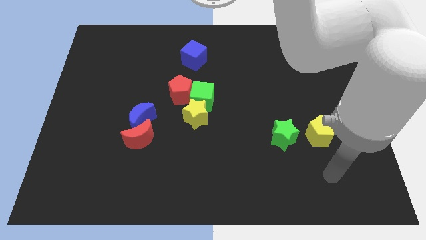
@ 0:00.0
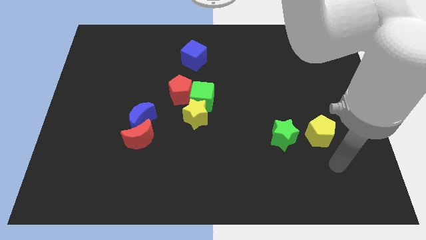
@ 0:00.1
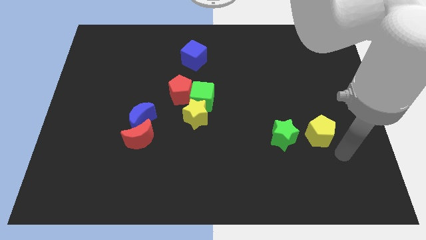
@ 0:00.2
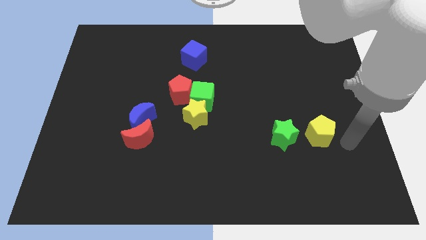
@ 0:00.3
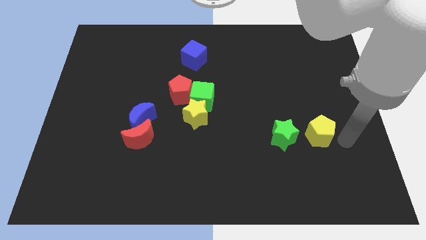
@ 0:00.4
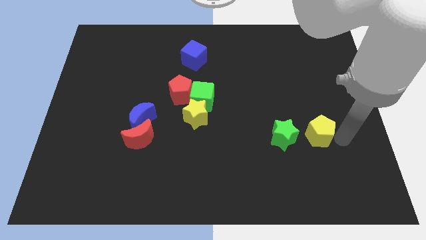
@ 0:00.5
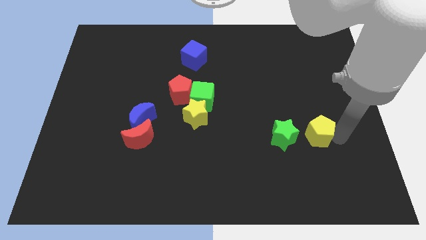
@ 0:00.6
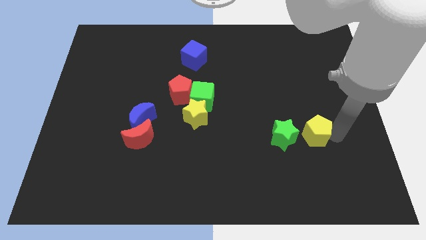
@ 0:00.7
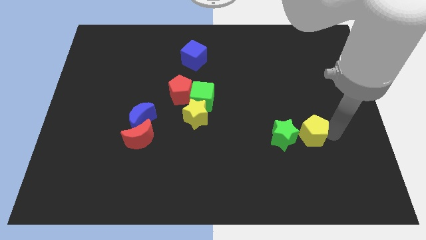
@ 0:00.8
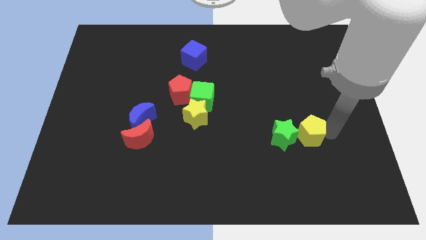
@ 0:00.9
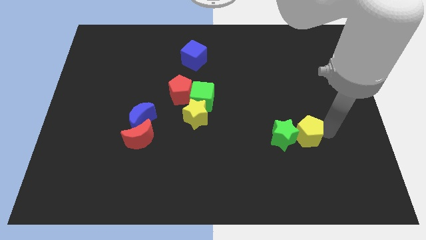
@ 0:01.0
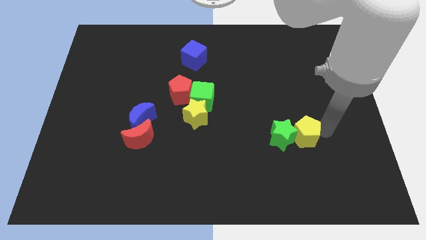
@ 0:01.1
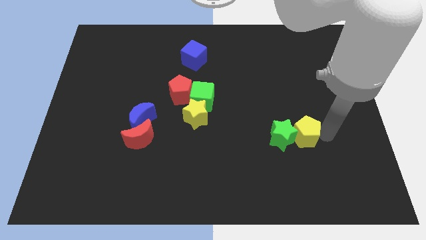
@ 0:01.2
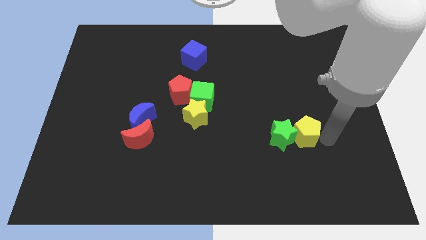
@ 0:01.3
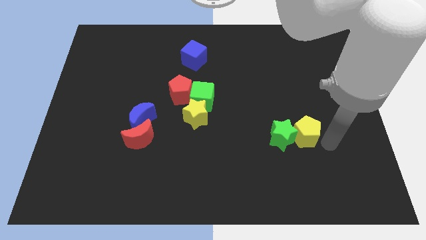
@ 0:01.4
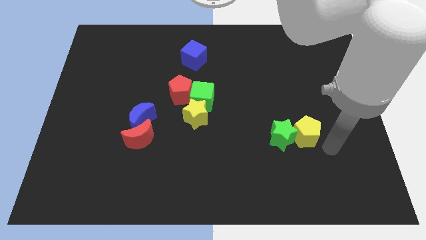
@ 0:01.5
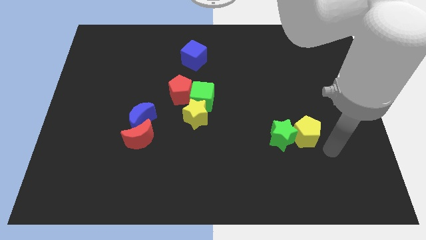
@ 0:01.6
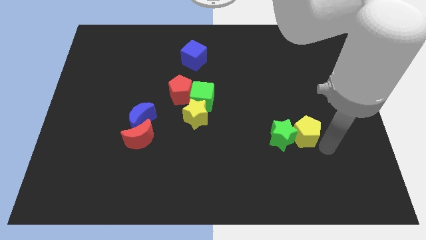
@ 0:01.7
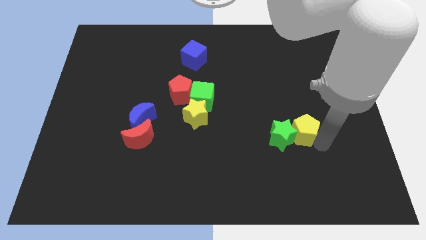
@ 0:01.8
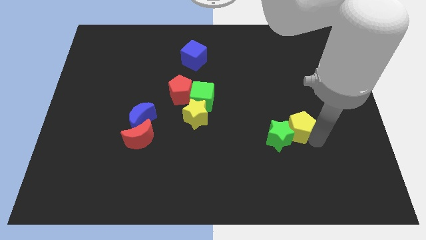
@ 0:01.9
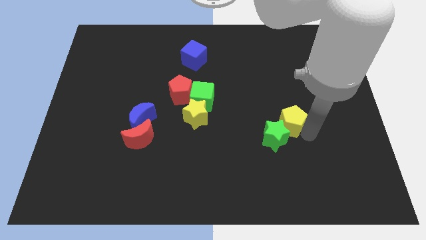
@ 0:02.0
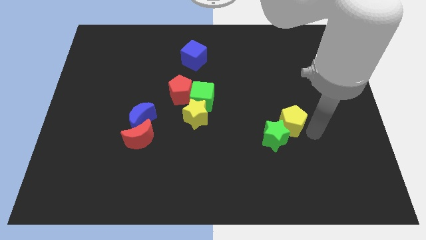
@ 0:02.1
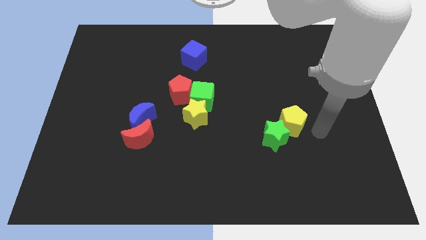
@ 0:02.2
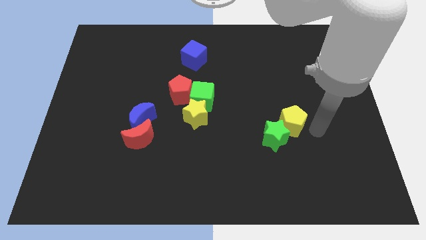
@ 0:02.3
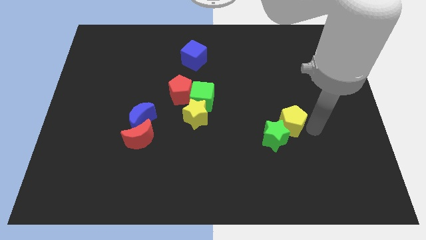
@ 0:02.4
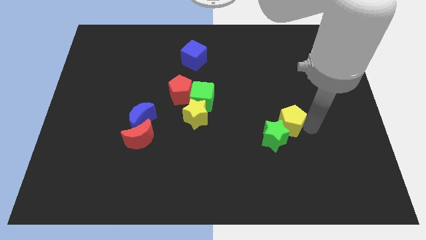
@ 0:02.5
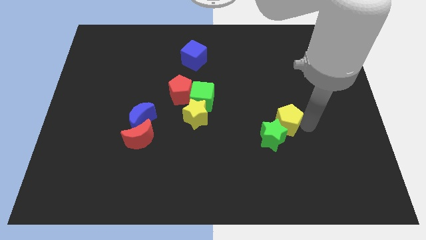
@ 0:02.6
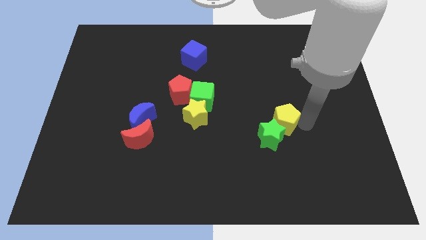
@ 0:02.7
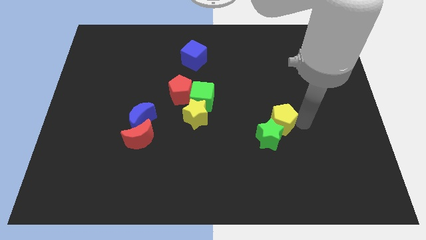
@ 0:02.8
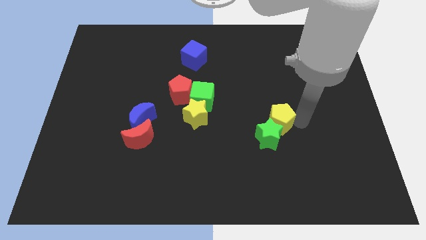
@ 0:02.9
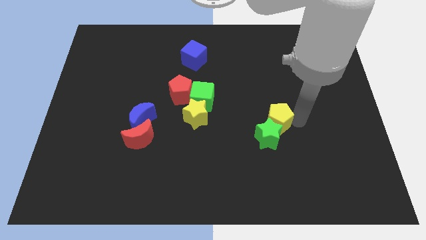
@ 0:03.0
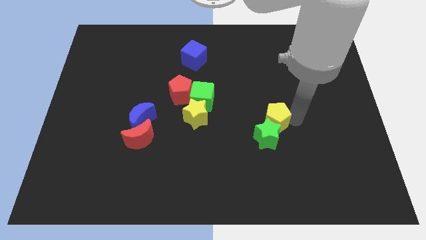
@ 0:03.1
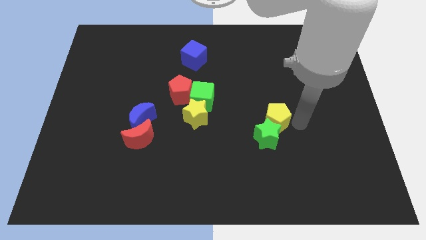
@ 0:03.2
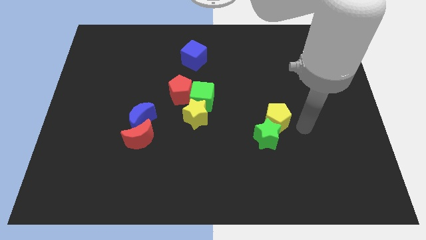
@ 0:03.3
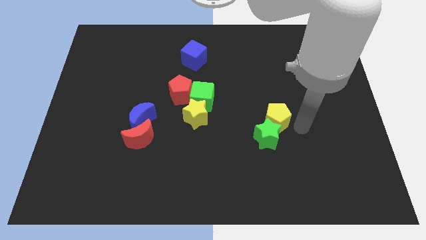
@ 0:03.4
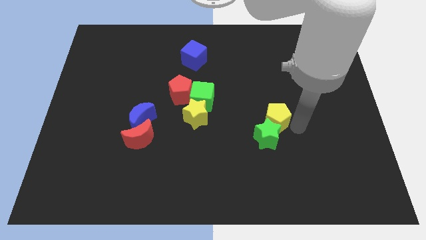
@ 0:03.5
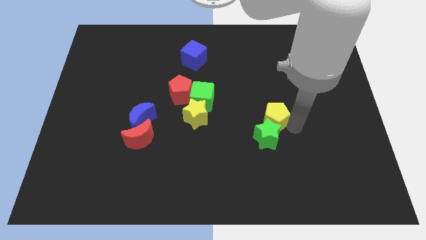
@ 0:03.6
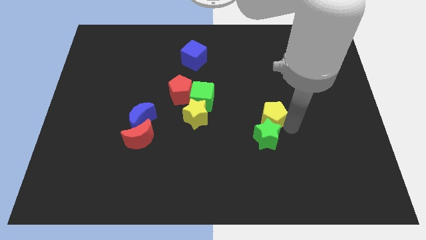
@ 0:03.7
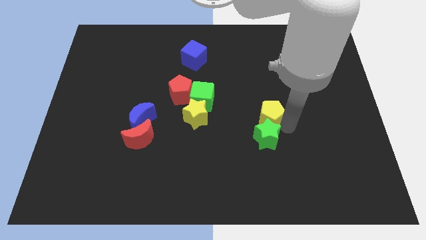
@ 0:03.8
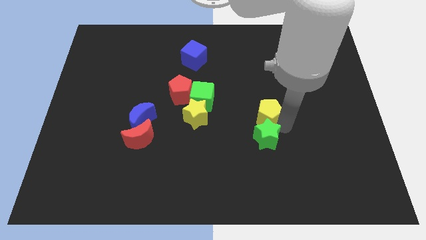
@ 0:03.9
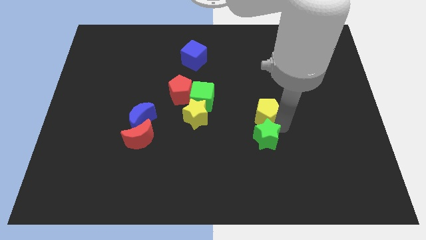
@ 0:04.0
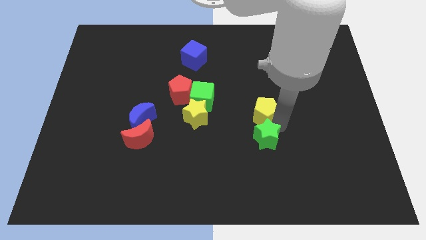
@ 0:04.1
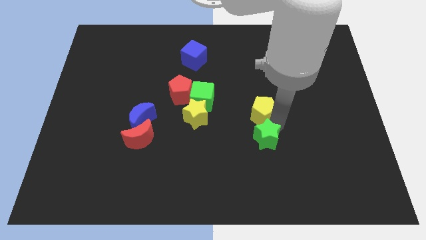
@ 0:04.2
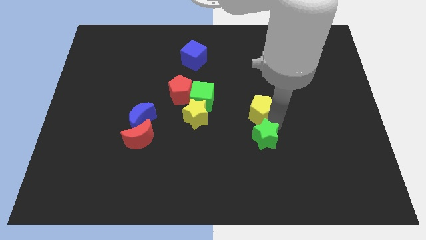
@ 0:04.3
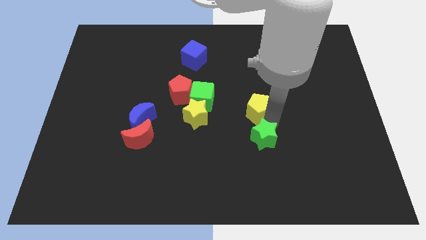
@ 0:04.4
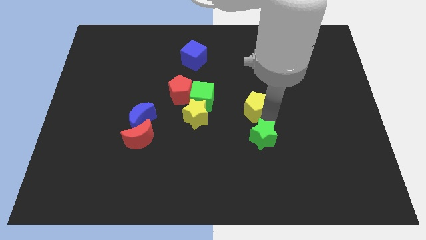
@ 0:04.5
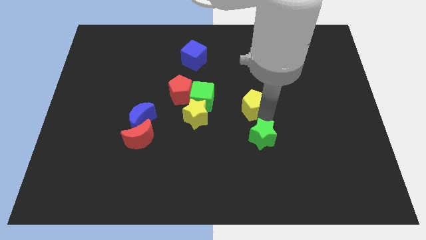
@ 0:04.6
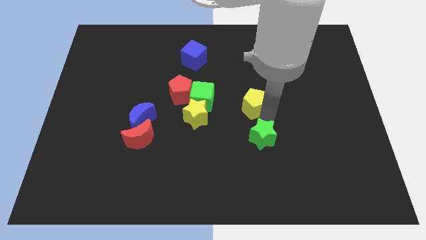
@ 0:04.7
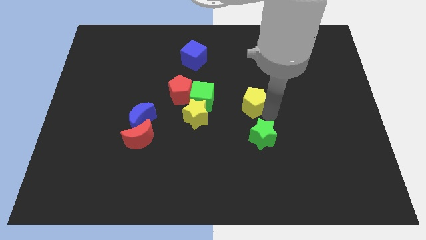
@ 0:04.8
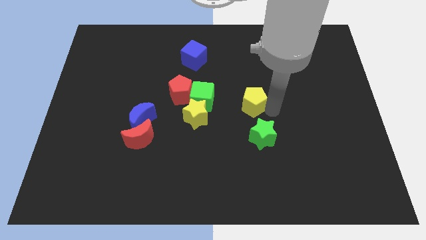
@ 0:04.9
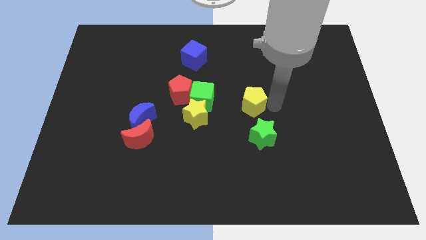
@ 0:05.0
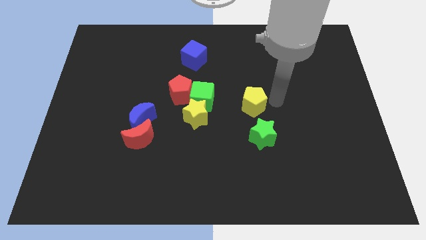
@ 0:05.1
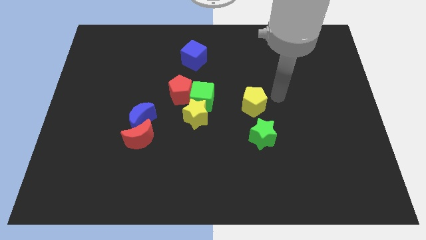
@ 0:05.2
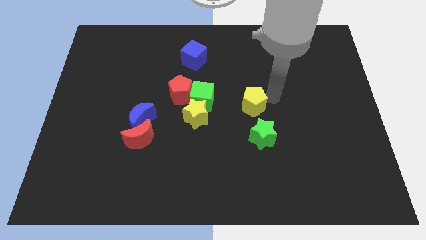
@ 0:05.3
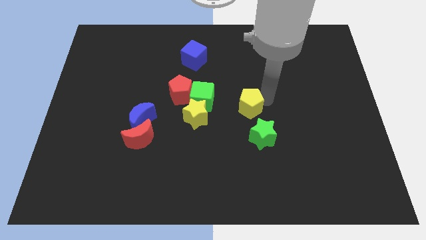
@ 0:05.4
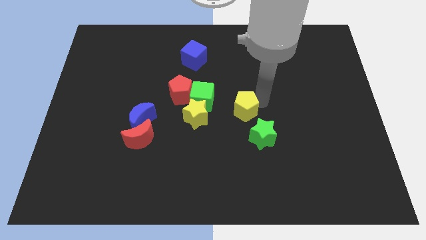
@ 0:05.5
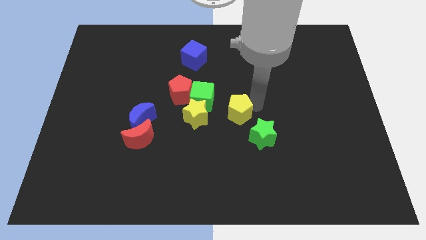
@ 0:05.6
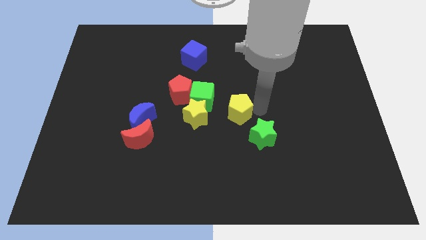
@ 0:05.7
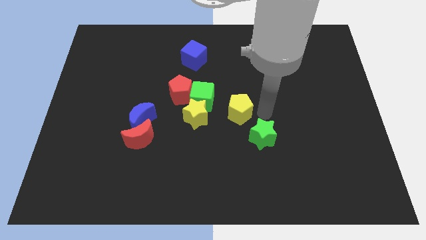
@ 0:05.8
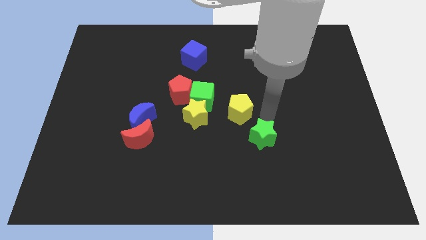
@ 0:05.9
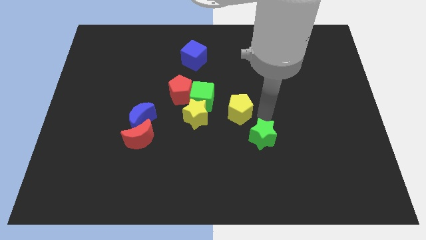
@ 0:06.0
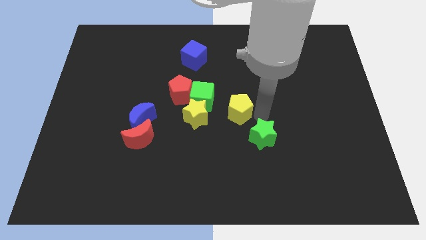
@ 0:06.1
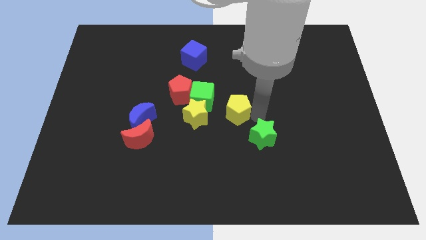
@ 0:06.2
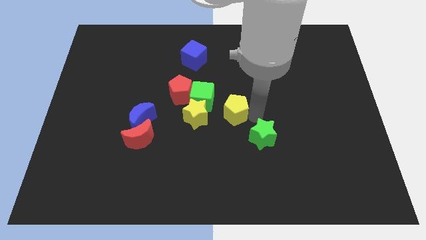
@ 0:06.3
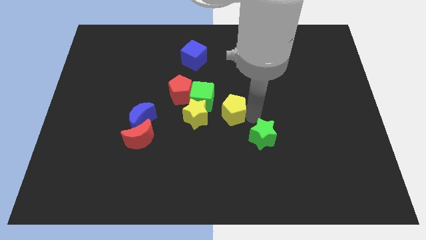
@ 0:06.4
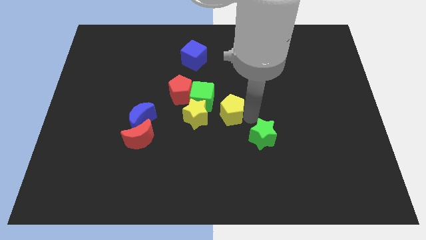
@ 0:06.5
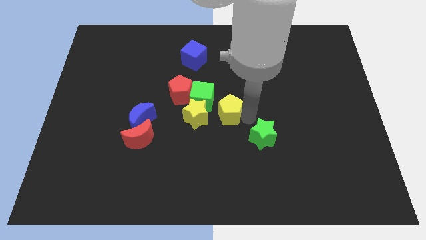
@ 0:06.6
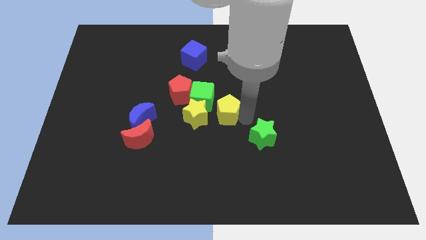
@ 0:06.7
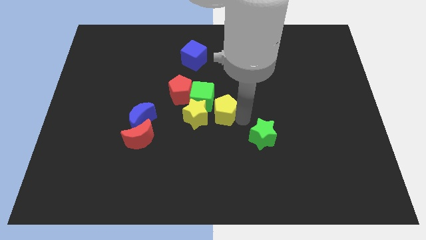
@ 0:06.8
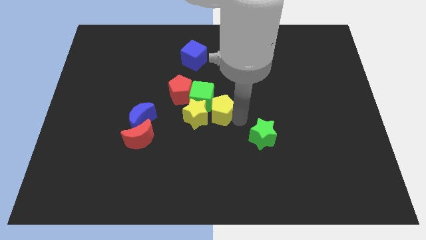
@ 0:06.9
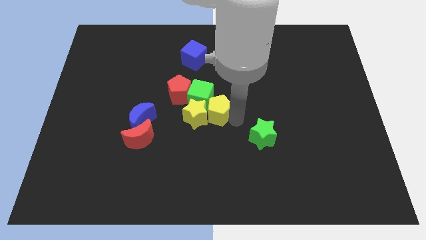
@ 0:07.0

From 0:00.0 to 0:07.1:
push the yellow pentagon close to the green cube
